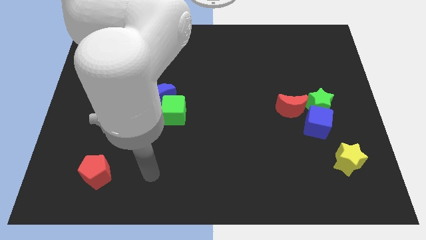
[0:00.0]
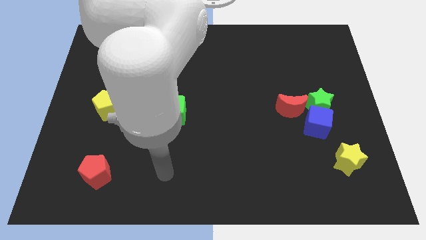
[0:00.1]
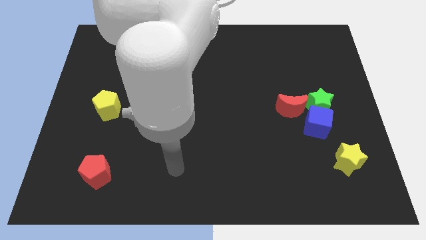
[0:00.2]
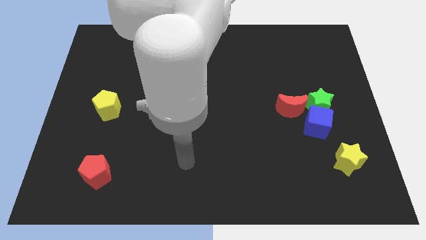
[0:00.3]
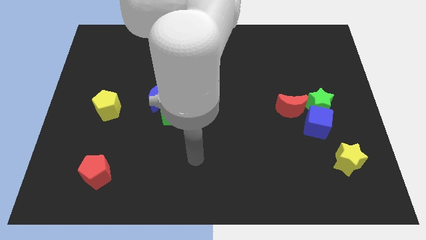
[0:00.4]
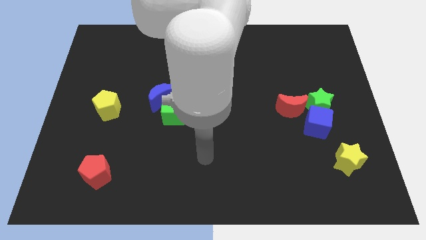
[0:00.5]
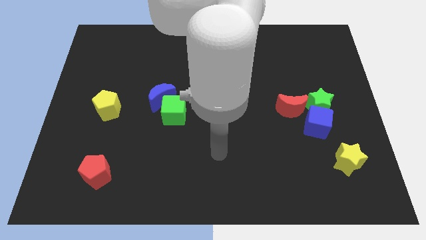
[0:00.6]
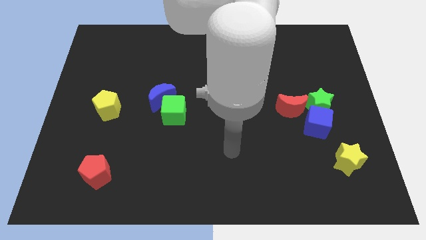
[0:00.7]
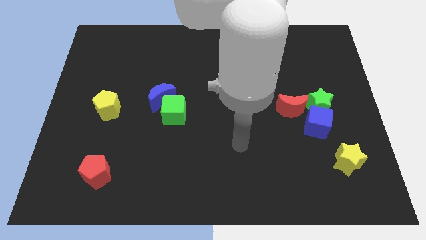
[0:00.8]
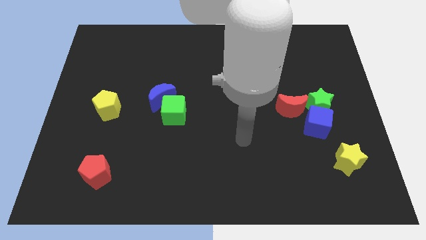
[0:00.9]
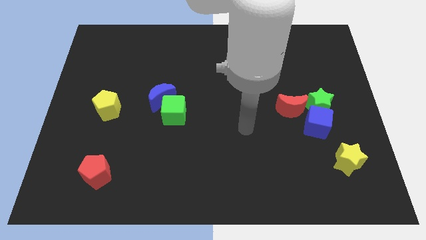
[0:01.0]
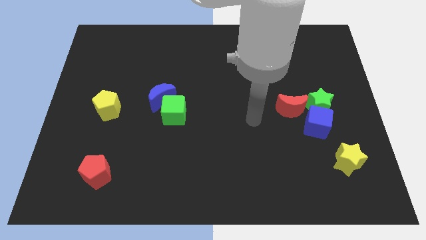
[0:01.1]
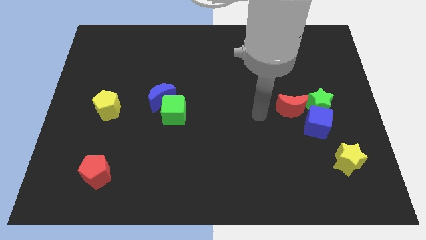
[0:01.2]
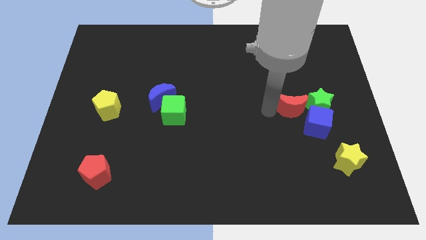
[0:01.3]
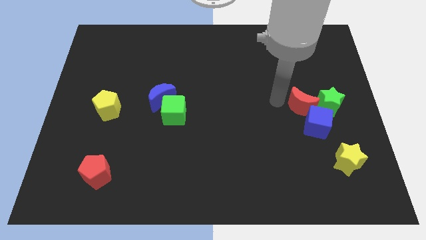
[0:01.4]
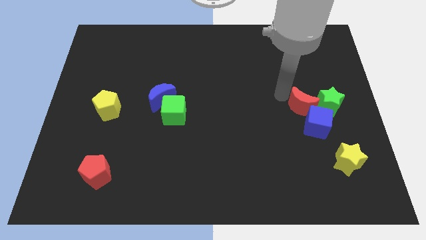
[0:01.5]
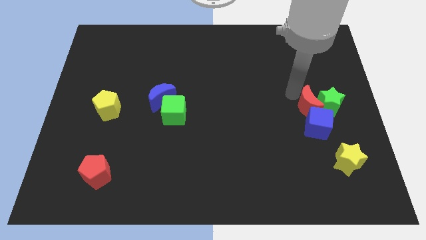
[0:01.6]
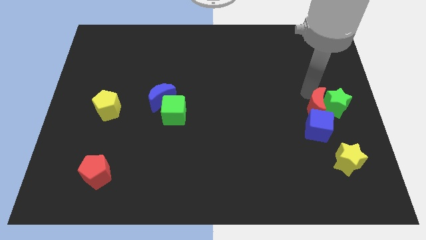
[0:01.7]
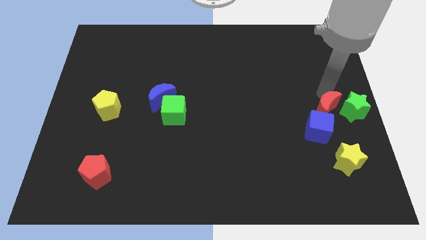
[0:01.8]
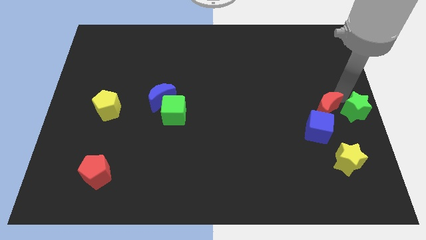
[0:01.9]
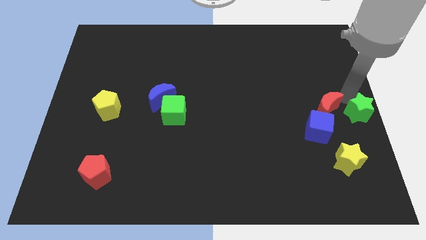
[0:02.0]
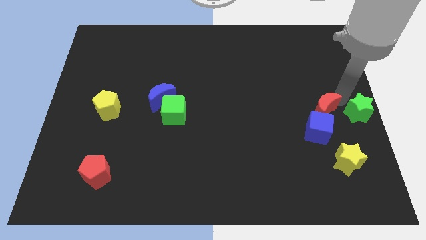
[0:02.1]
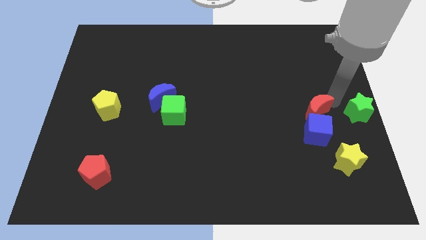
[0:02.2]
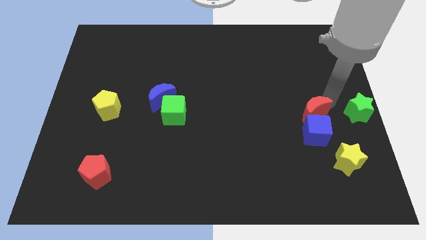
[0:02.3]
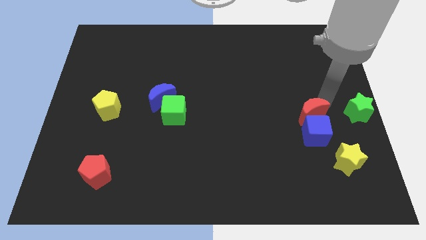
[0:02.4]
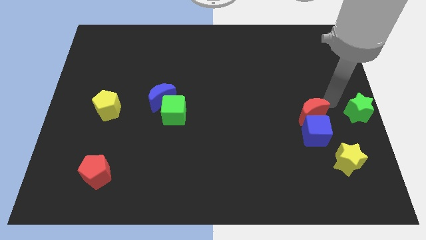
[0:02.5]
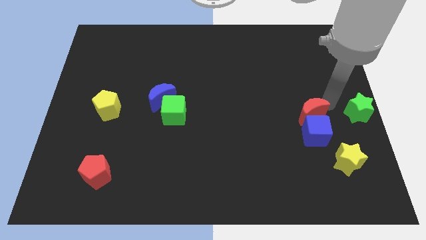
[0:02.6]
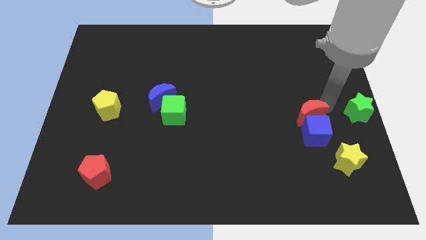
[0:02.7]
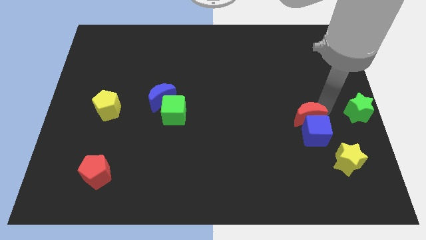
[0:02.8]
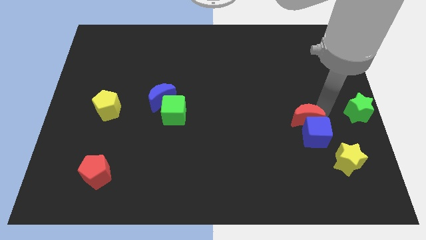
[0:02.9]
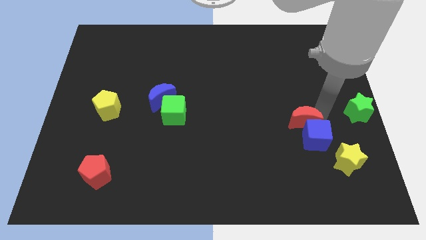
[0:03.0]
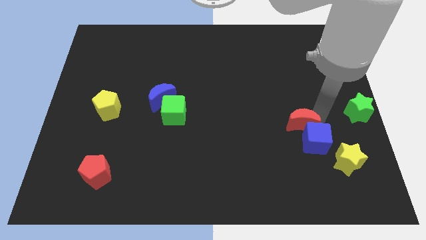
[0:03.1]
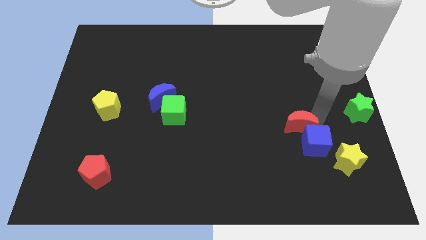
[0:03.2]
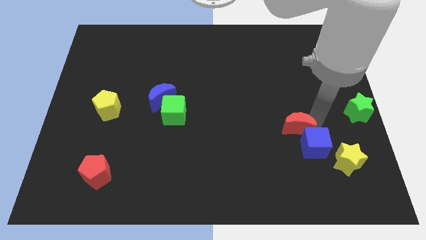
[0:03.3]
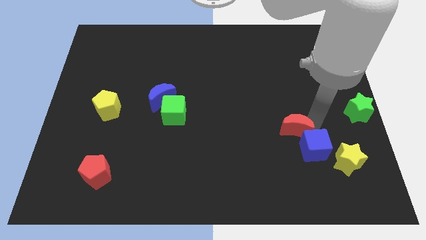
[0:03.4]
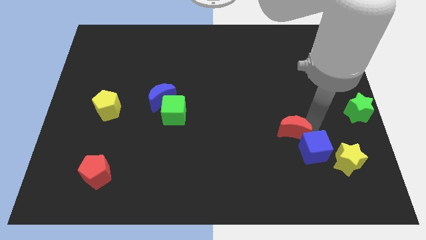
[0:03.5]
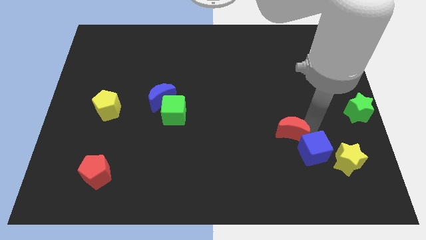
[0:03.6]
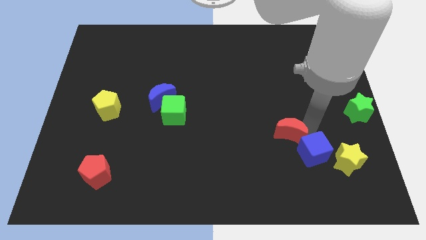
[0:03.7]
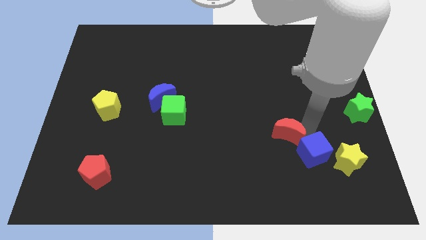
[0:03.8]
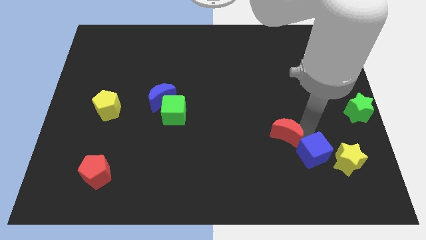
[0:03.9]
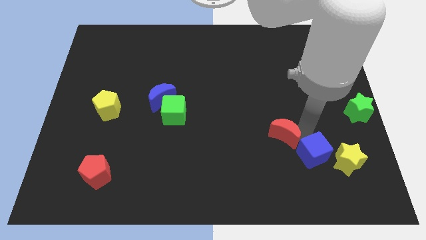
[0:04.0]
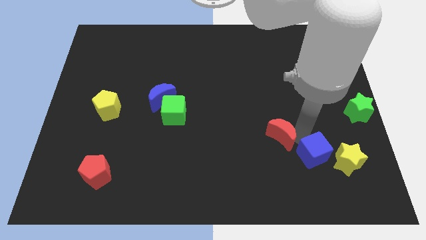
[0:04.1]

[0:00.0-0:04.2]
slightly move the red moon diagonally downwards and to the left

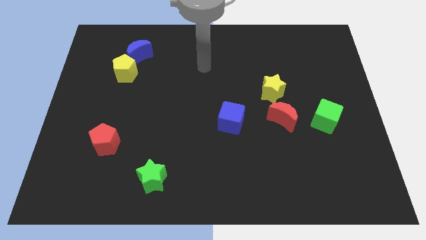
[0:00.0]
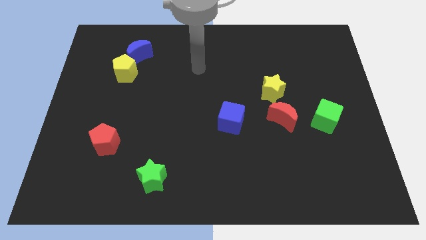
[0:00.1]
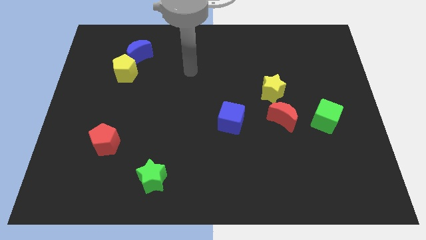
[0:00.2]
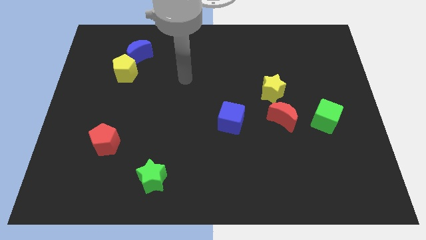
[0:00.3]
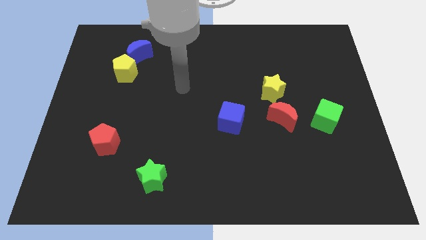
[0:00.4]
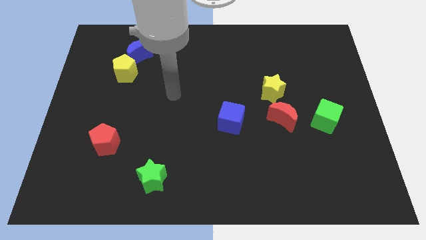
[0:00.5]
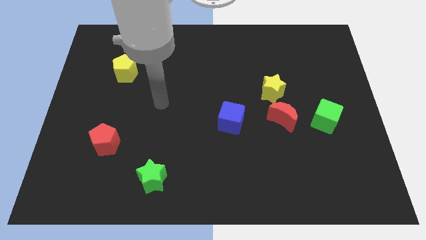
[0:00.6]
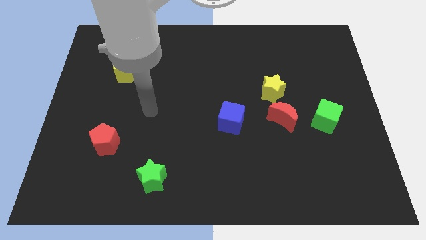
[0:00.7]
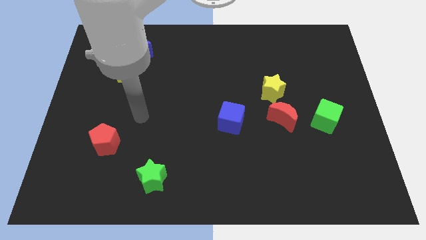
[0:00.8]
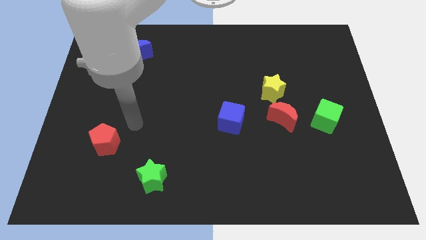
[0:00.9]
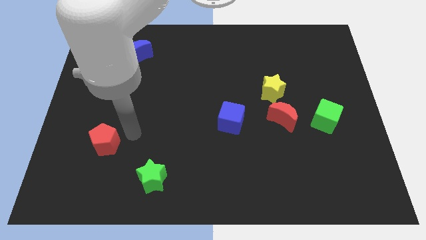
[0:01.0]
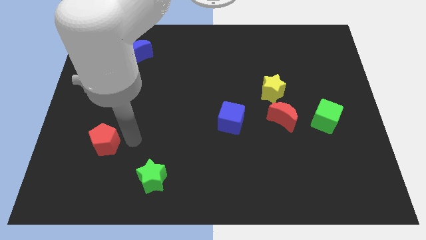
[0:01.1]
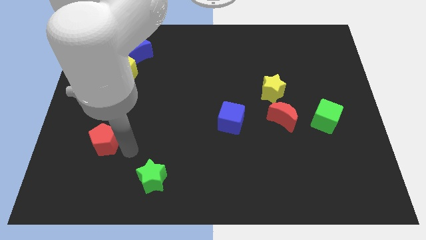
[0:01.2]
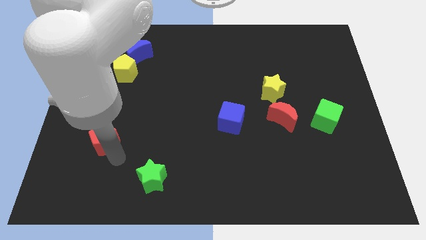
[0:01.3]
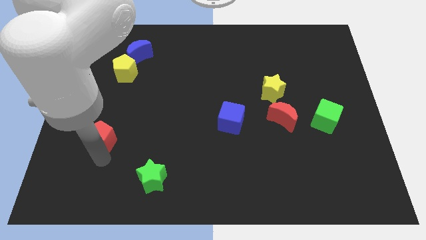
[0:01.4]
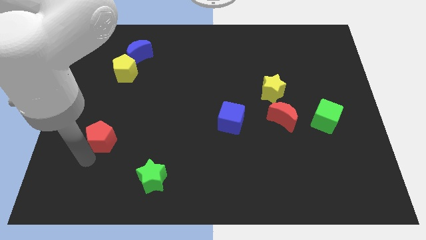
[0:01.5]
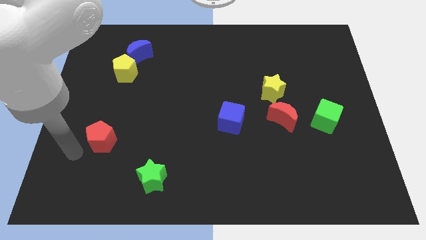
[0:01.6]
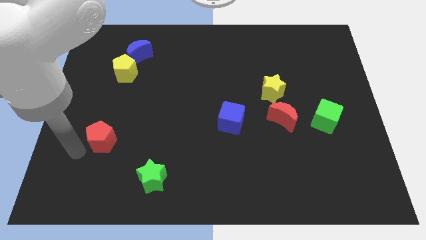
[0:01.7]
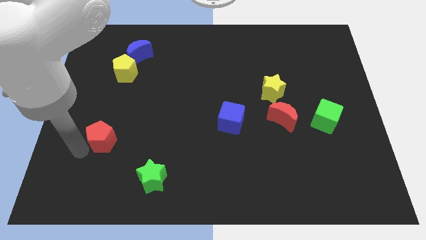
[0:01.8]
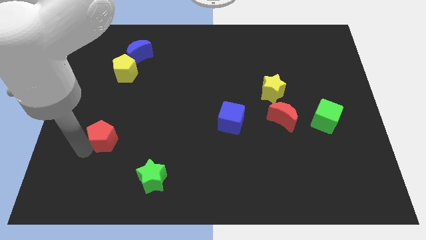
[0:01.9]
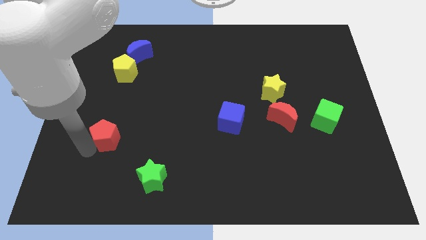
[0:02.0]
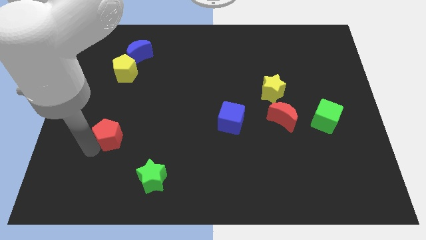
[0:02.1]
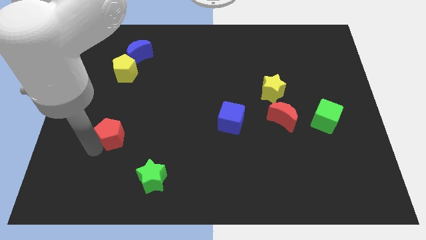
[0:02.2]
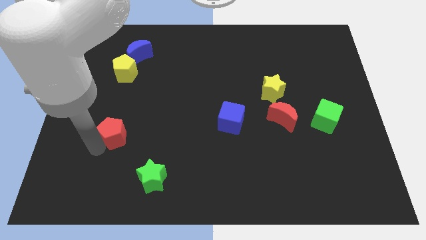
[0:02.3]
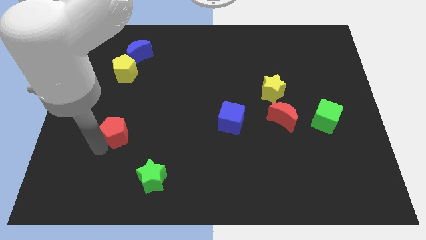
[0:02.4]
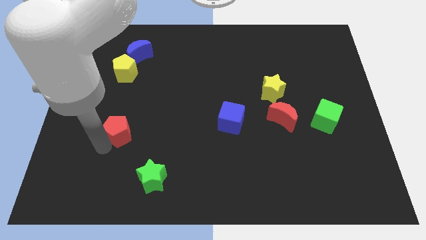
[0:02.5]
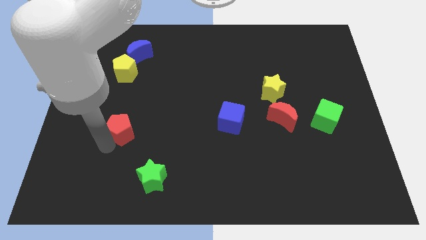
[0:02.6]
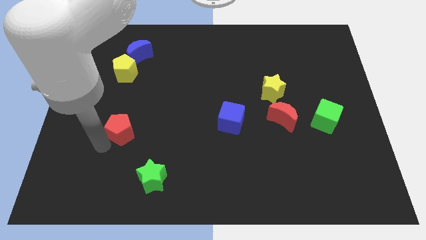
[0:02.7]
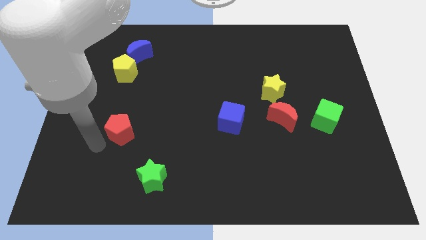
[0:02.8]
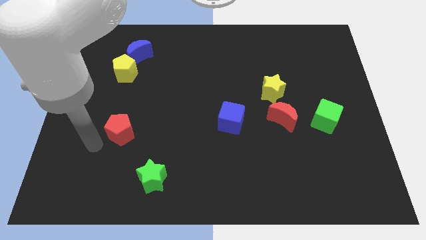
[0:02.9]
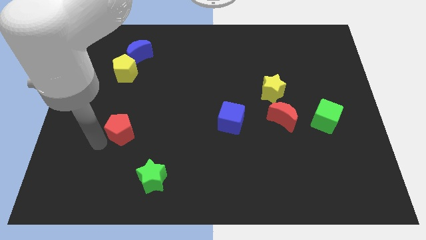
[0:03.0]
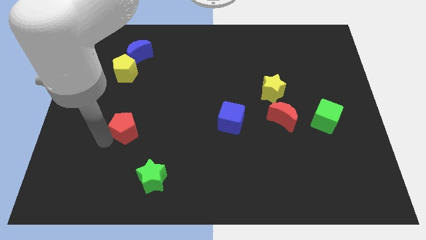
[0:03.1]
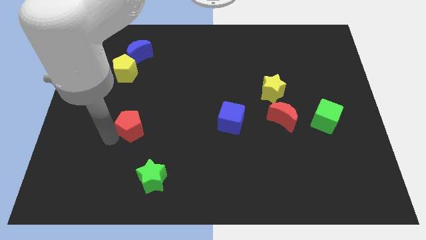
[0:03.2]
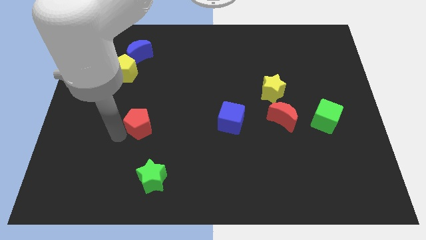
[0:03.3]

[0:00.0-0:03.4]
slightly move the red pentagon upwards and to the right diagonally

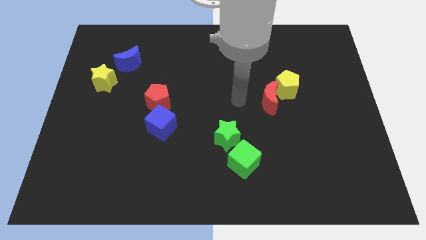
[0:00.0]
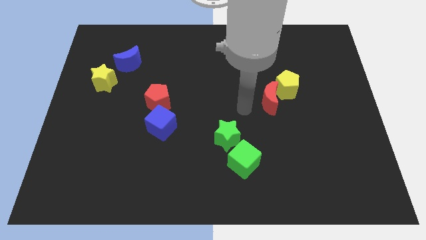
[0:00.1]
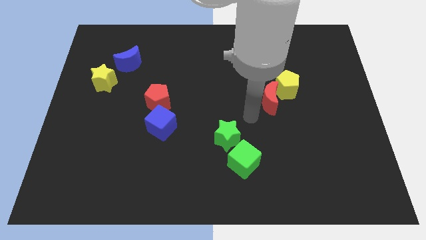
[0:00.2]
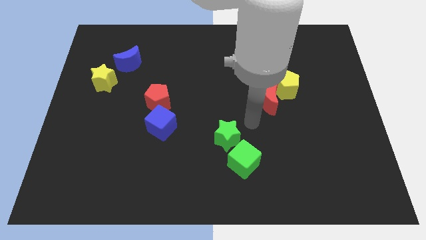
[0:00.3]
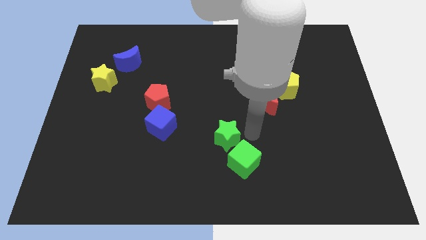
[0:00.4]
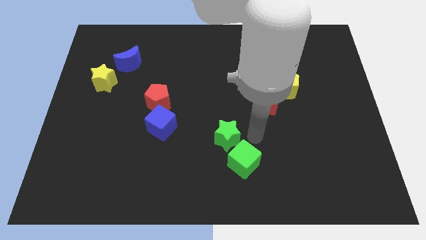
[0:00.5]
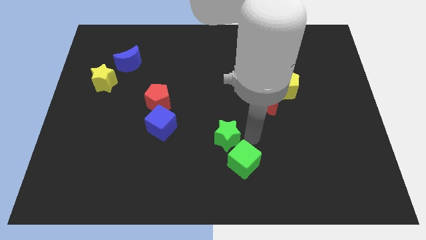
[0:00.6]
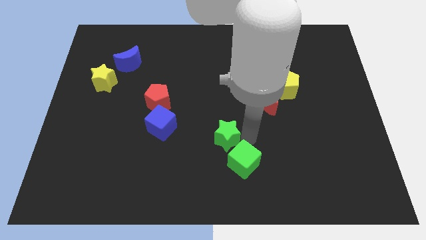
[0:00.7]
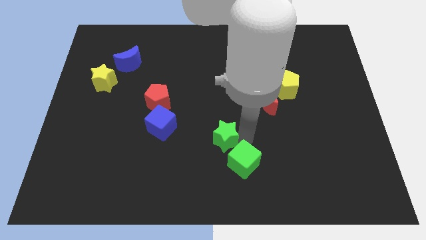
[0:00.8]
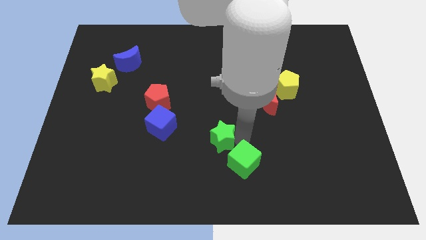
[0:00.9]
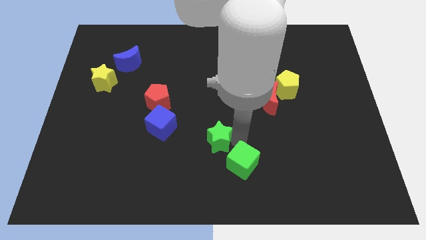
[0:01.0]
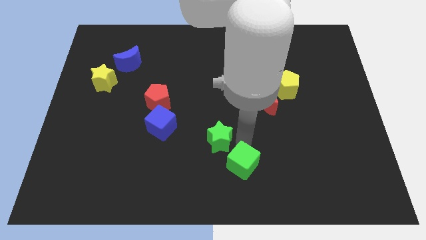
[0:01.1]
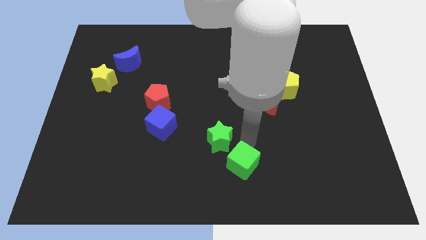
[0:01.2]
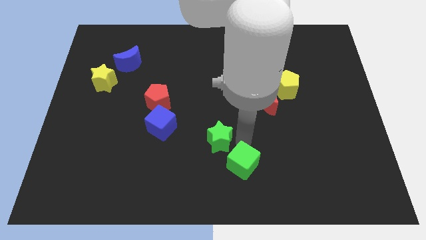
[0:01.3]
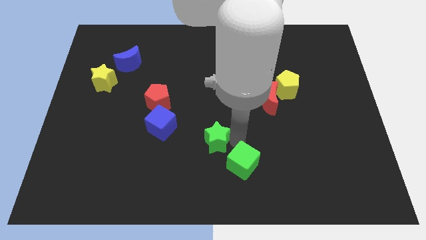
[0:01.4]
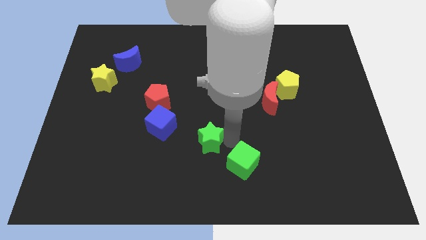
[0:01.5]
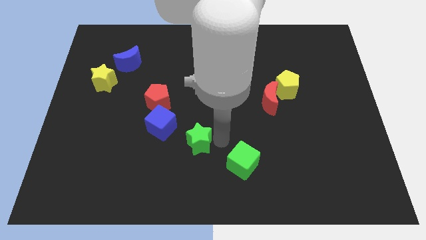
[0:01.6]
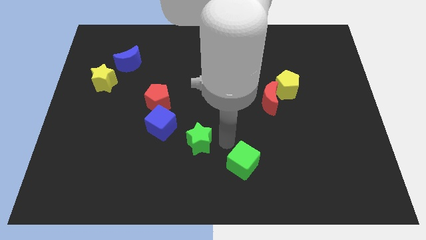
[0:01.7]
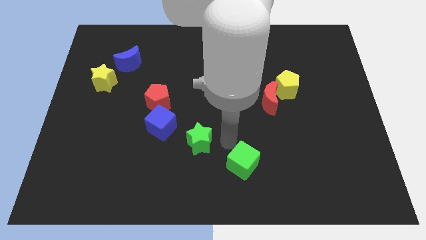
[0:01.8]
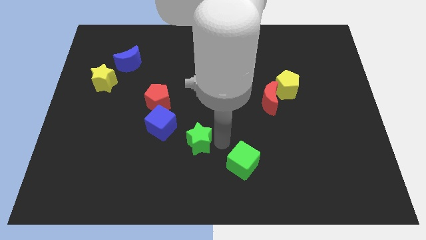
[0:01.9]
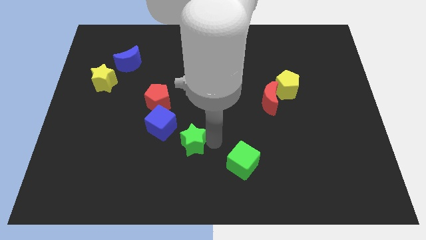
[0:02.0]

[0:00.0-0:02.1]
slightly push the green star left
